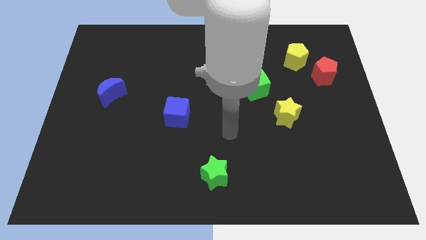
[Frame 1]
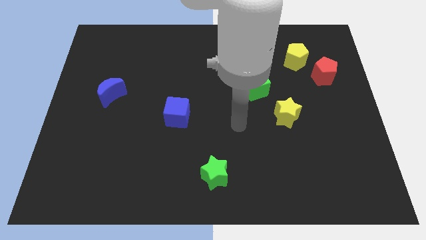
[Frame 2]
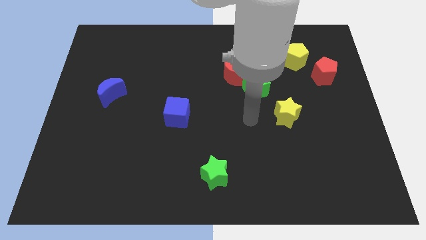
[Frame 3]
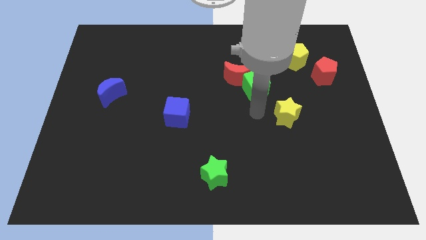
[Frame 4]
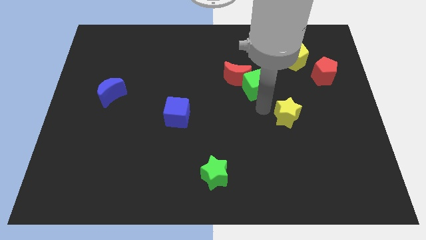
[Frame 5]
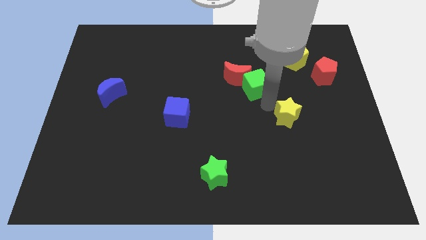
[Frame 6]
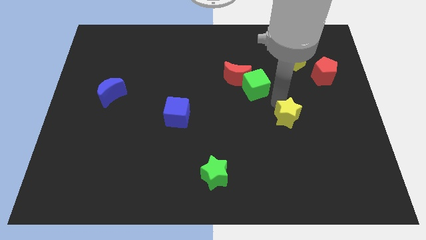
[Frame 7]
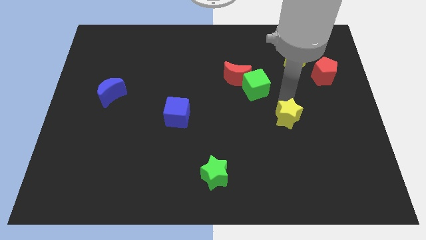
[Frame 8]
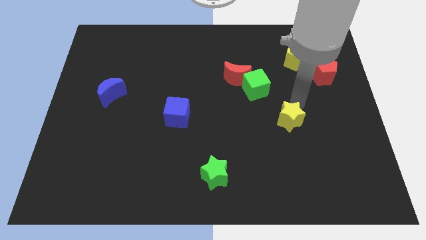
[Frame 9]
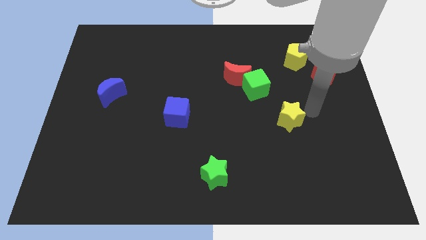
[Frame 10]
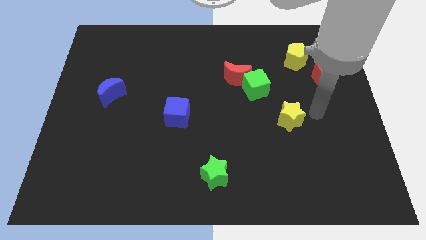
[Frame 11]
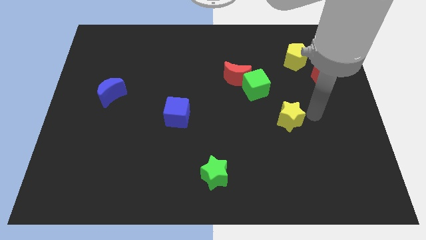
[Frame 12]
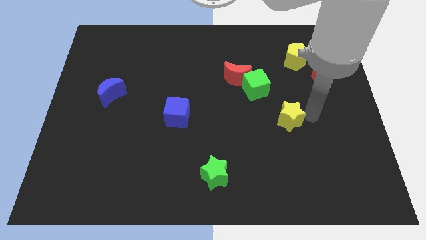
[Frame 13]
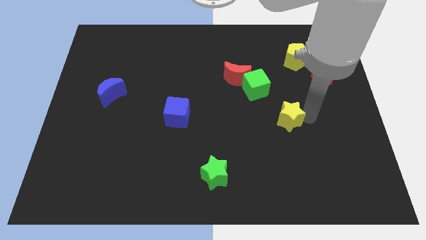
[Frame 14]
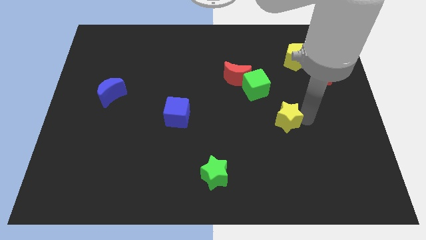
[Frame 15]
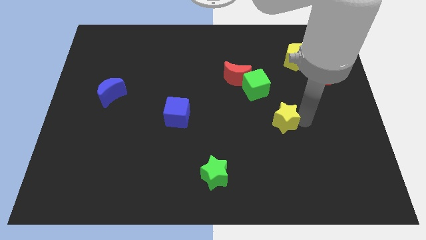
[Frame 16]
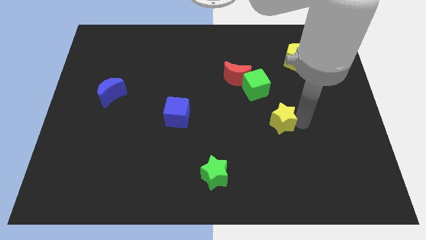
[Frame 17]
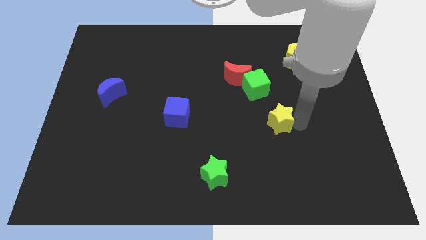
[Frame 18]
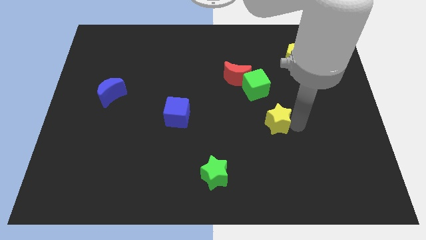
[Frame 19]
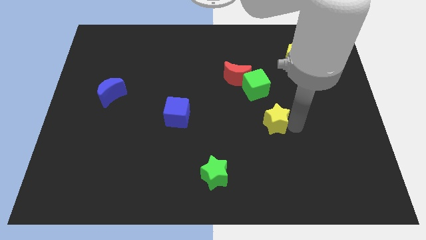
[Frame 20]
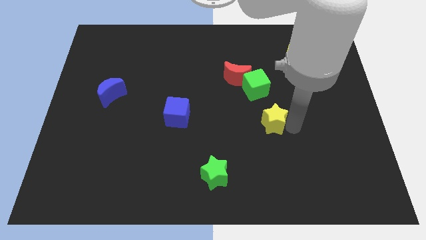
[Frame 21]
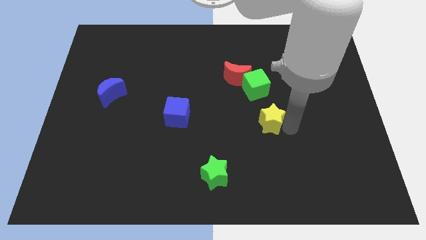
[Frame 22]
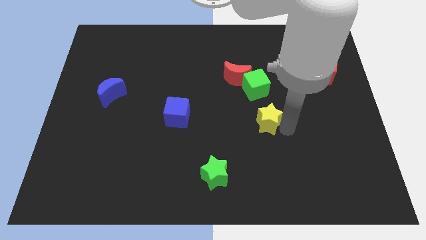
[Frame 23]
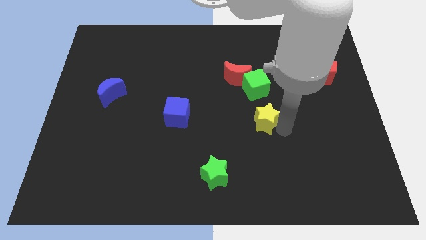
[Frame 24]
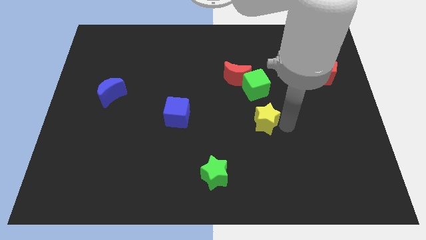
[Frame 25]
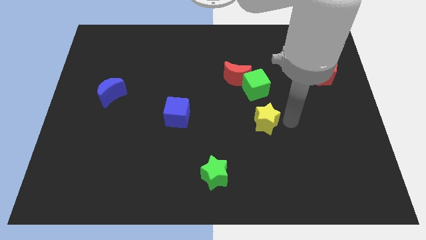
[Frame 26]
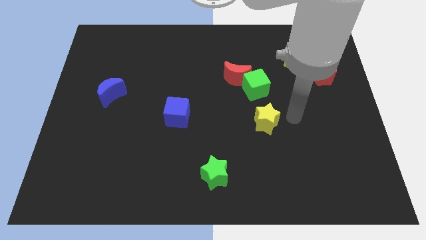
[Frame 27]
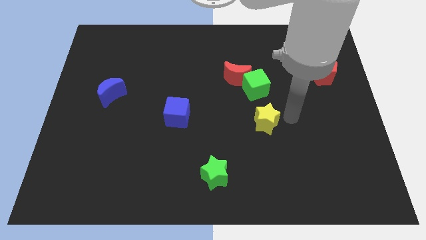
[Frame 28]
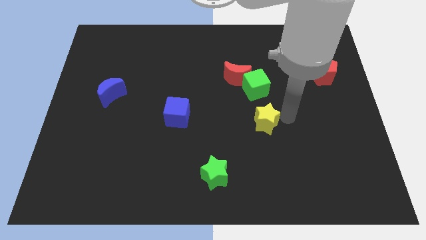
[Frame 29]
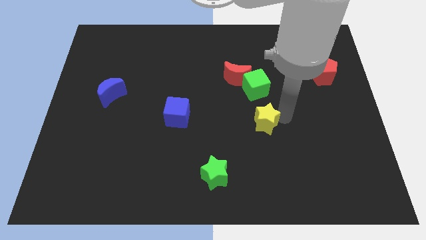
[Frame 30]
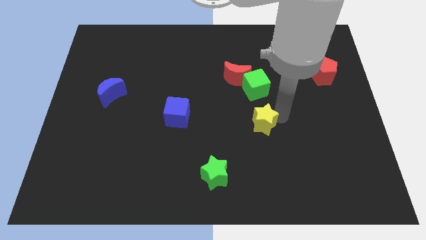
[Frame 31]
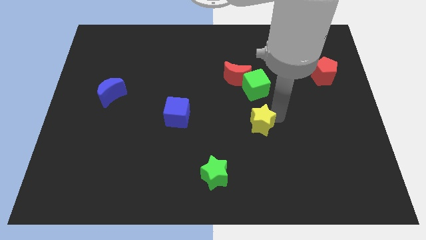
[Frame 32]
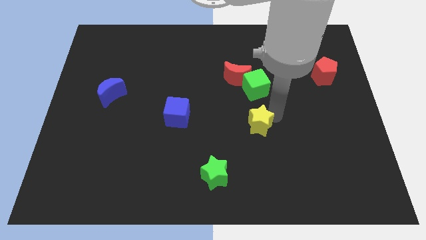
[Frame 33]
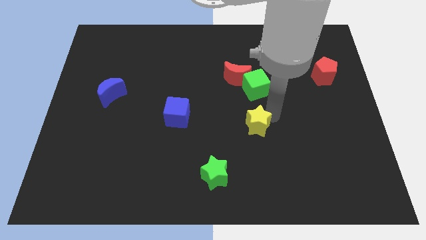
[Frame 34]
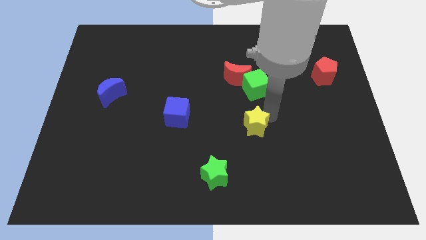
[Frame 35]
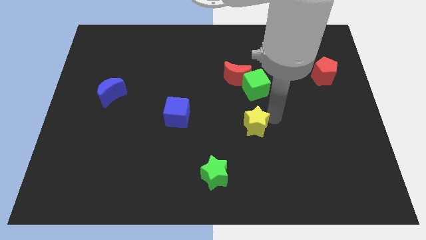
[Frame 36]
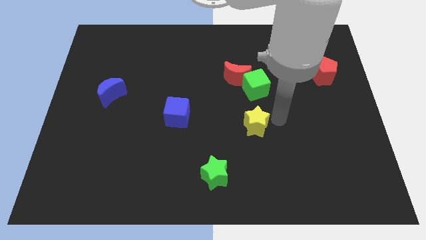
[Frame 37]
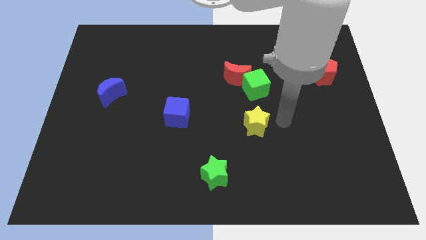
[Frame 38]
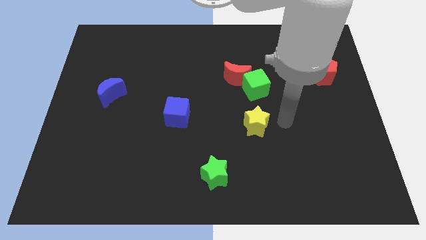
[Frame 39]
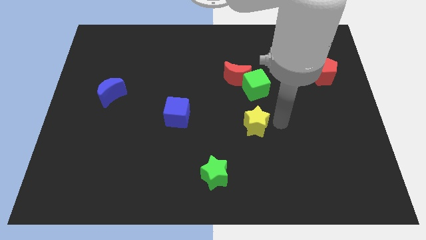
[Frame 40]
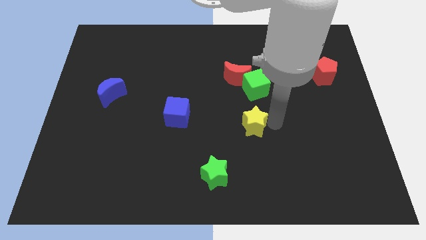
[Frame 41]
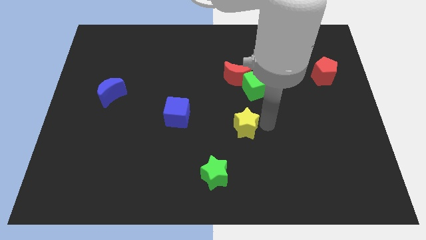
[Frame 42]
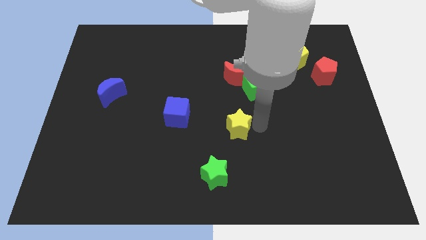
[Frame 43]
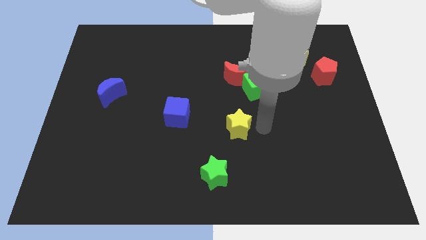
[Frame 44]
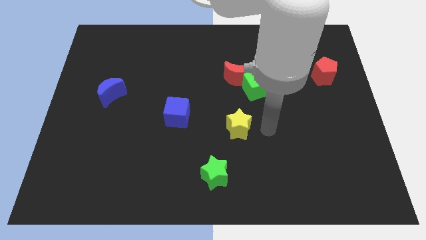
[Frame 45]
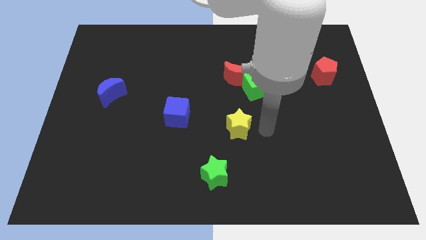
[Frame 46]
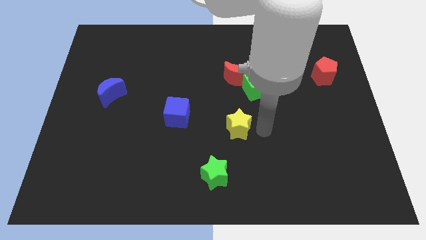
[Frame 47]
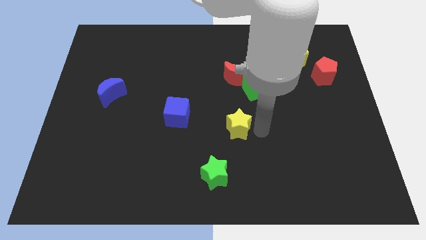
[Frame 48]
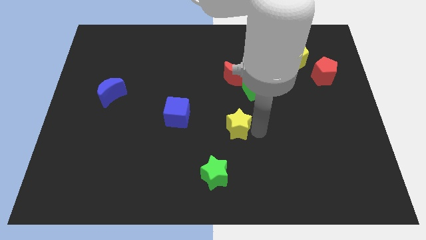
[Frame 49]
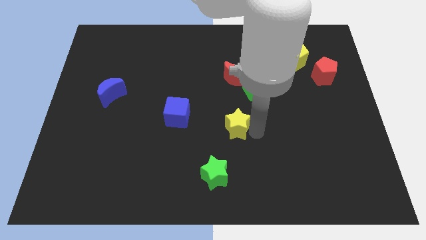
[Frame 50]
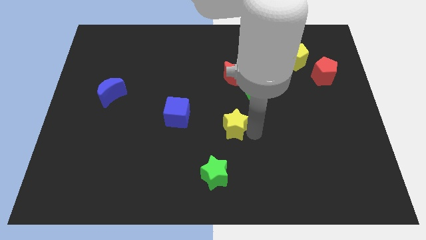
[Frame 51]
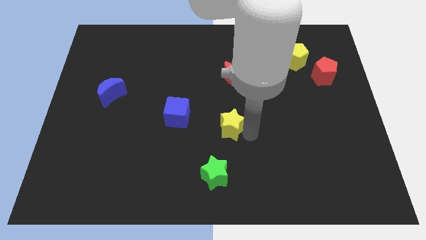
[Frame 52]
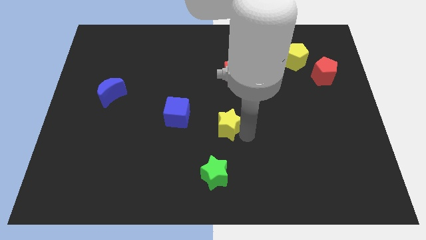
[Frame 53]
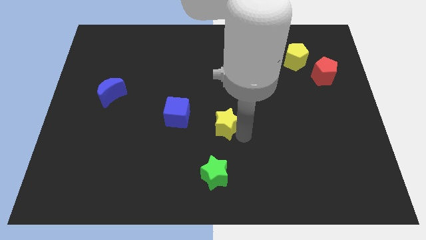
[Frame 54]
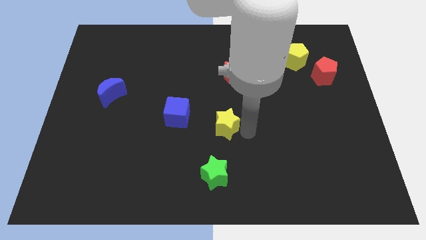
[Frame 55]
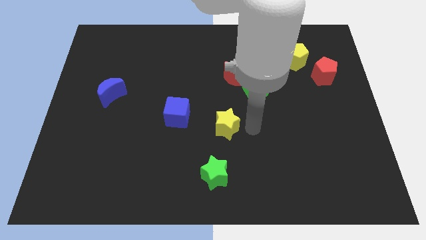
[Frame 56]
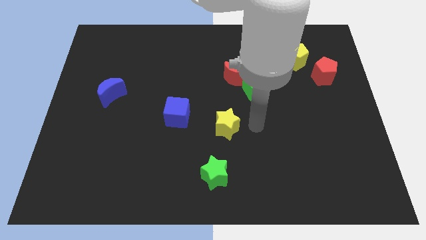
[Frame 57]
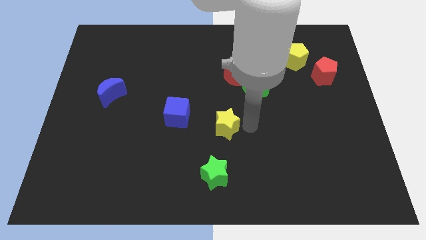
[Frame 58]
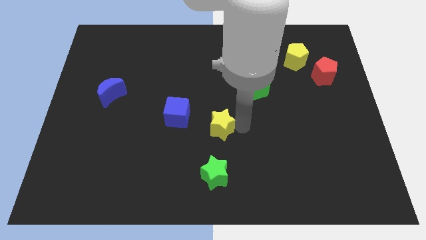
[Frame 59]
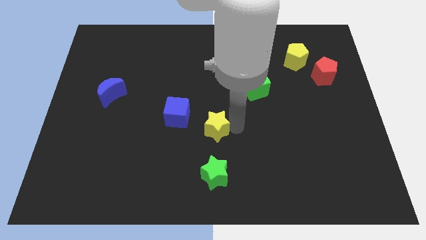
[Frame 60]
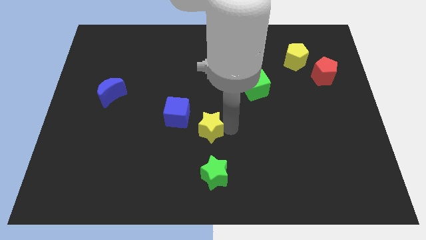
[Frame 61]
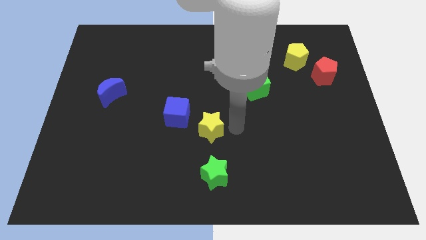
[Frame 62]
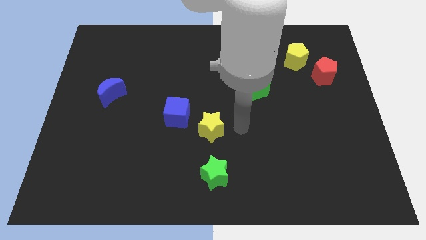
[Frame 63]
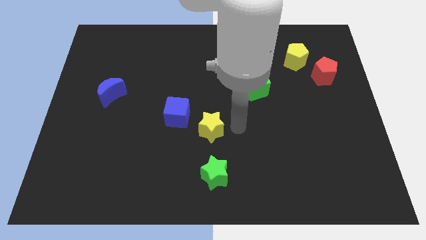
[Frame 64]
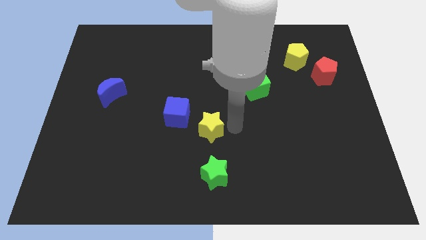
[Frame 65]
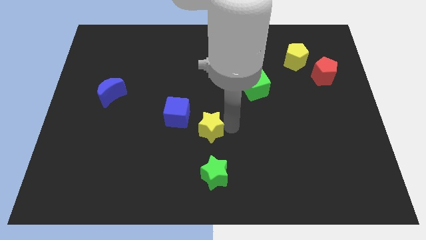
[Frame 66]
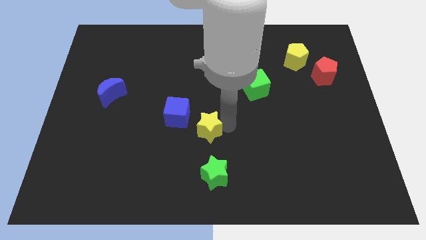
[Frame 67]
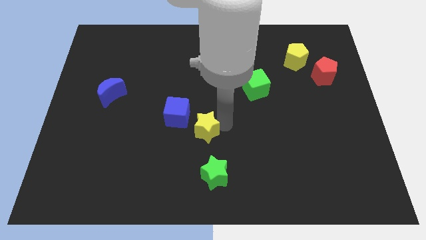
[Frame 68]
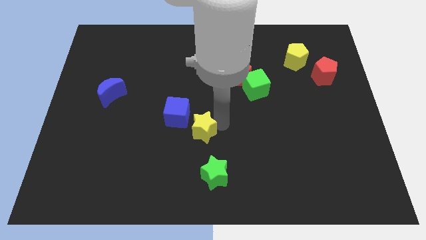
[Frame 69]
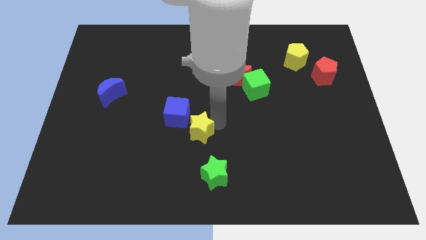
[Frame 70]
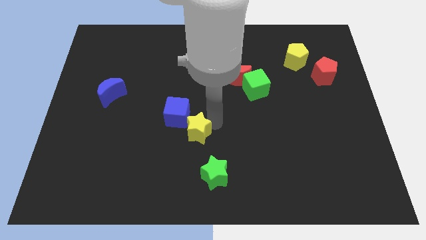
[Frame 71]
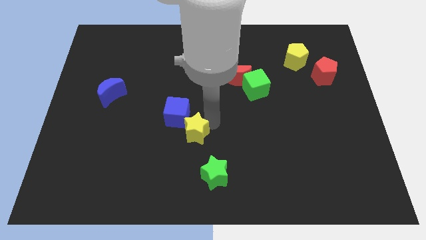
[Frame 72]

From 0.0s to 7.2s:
slide the yellow star to the left

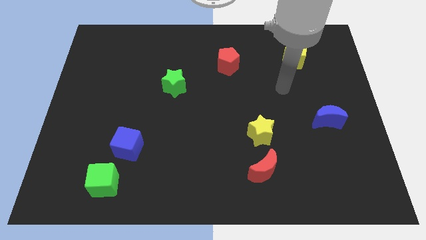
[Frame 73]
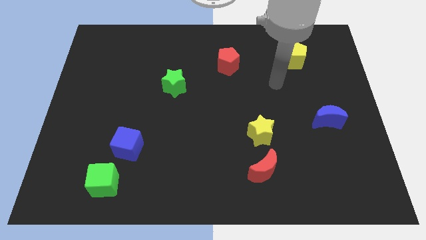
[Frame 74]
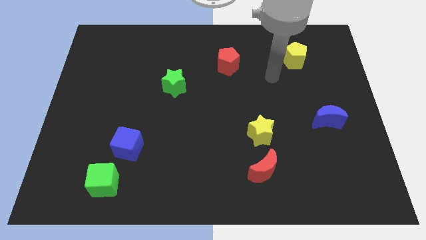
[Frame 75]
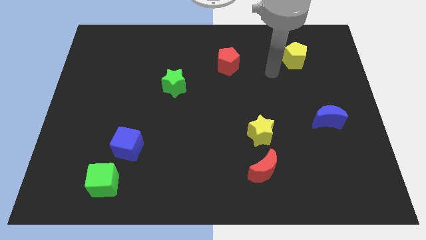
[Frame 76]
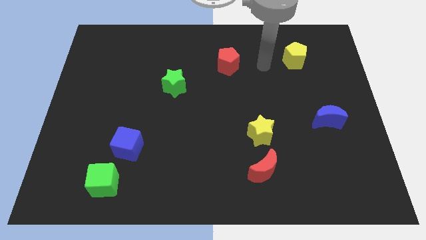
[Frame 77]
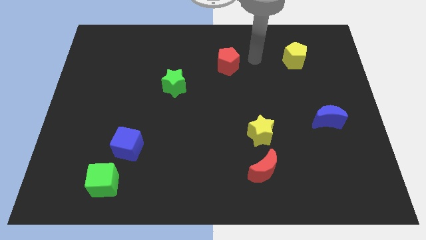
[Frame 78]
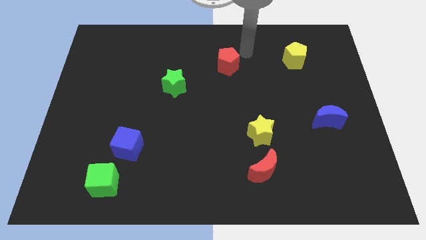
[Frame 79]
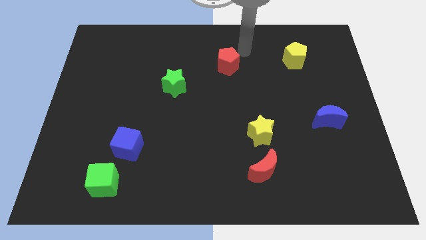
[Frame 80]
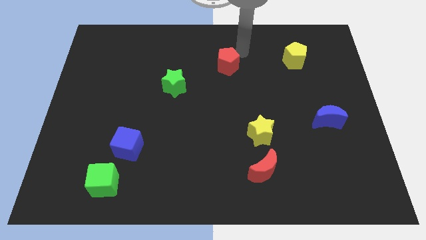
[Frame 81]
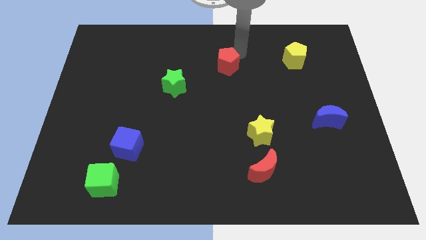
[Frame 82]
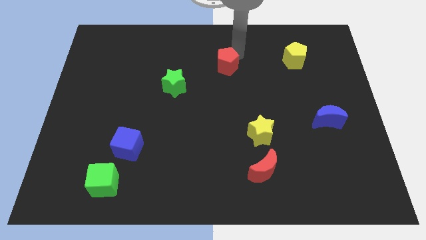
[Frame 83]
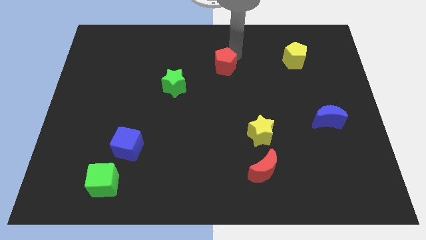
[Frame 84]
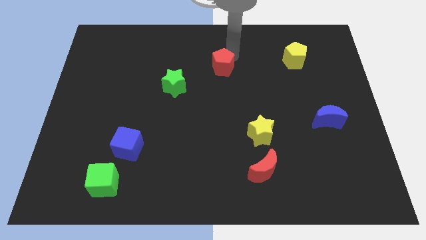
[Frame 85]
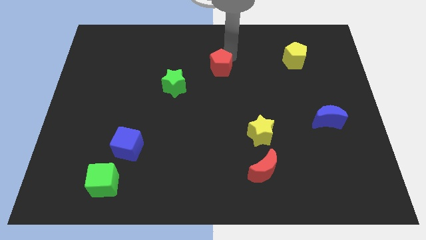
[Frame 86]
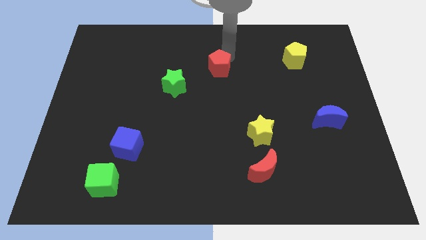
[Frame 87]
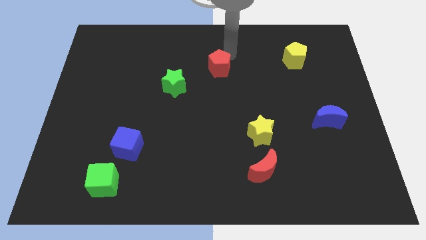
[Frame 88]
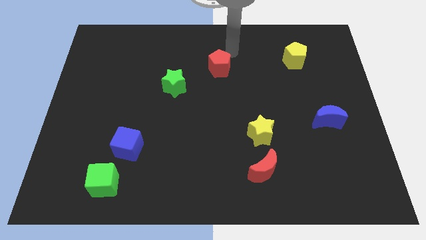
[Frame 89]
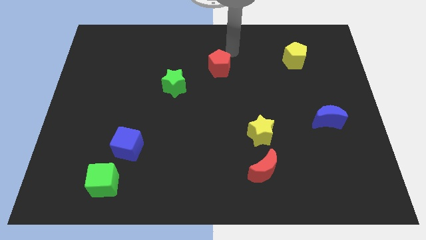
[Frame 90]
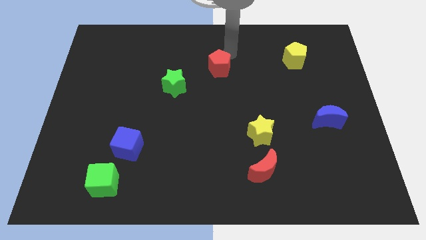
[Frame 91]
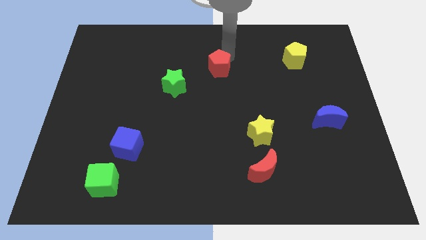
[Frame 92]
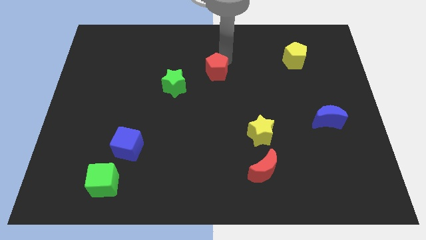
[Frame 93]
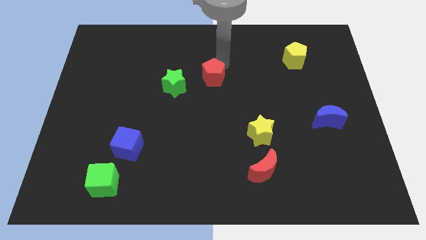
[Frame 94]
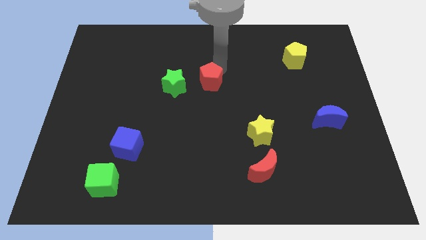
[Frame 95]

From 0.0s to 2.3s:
slightly move the red pentagon down and then left
